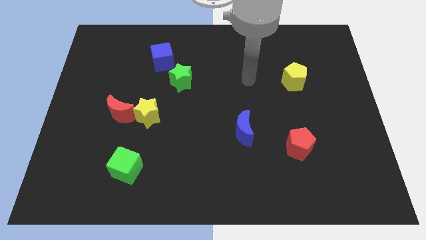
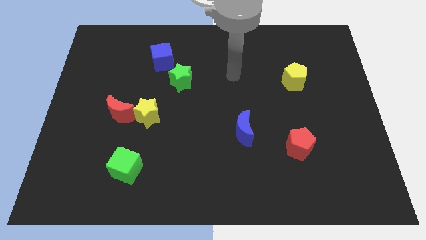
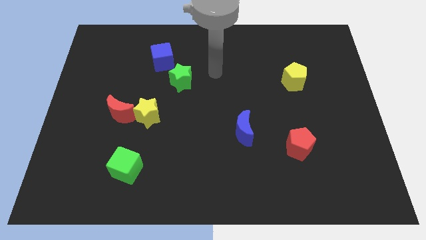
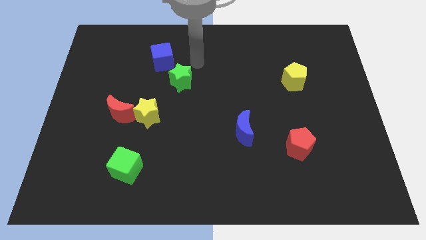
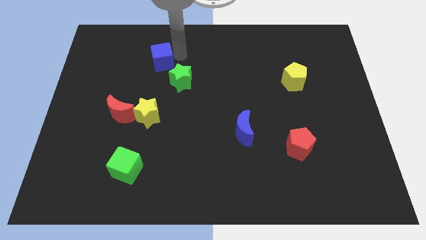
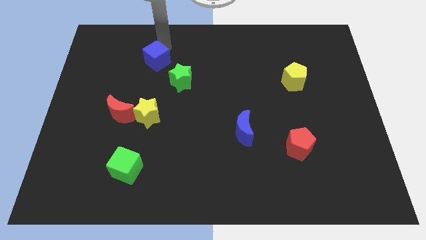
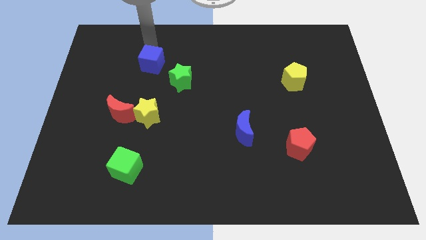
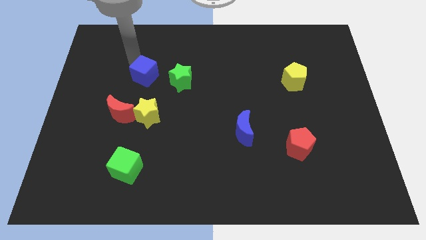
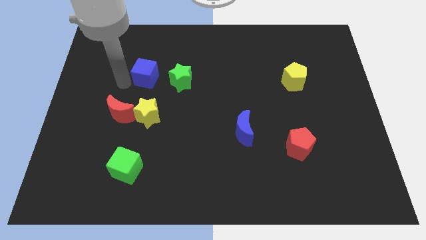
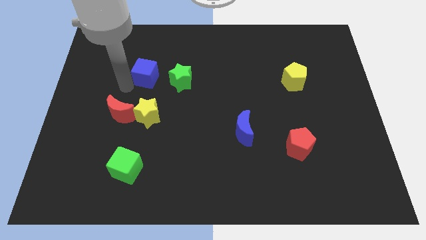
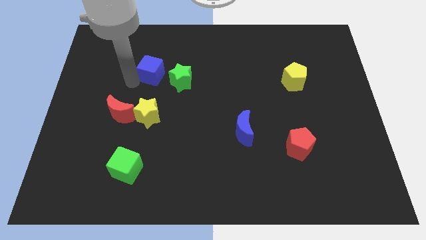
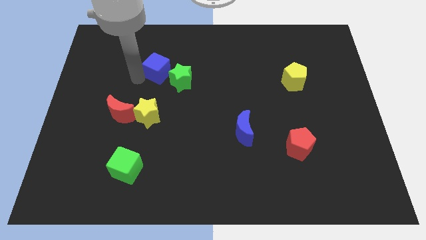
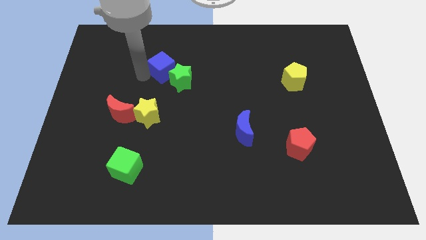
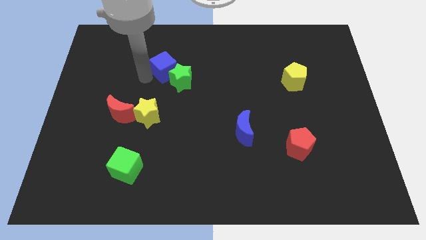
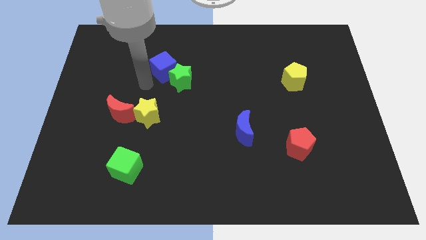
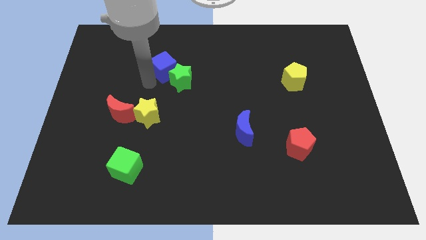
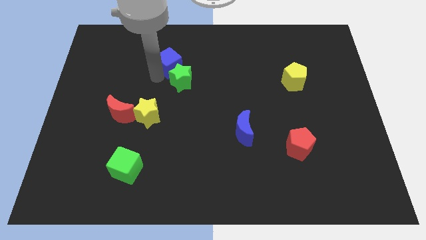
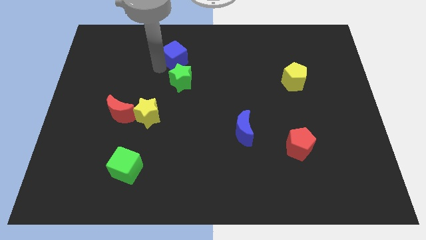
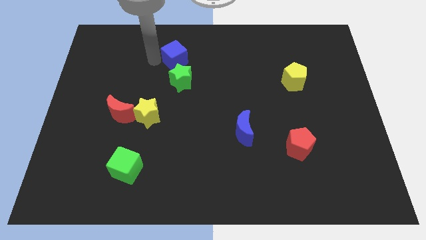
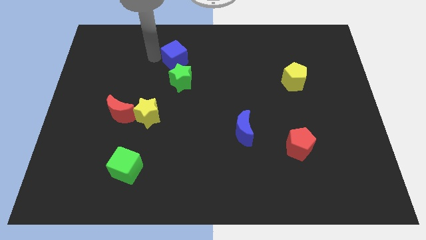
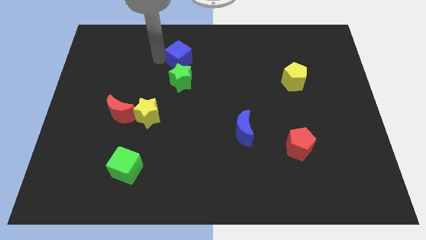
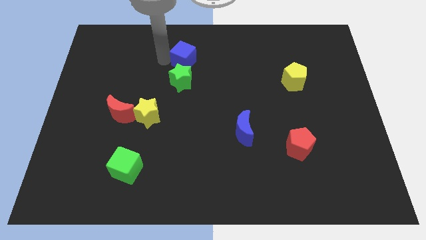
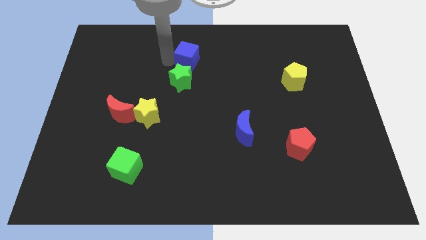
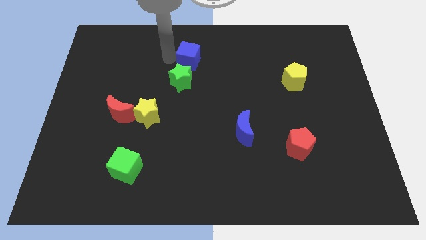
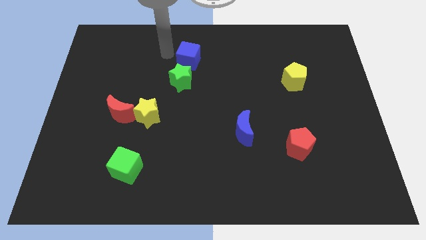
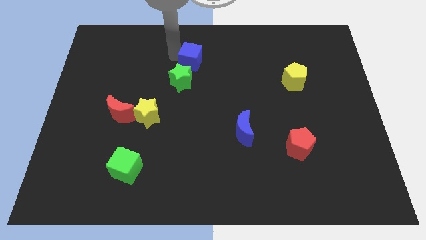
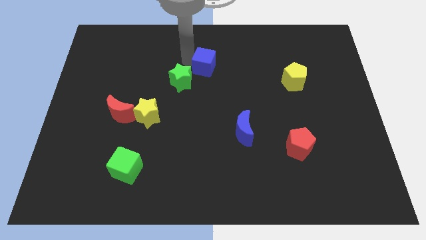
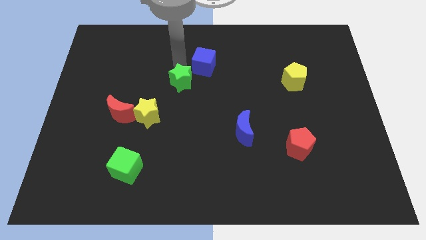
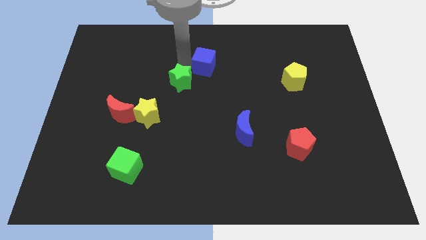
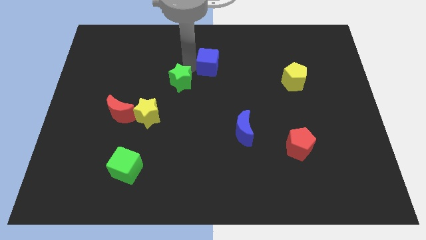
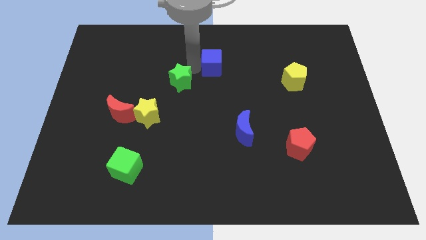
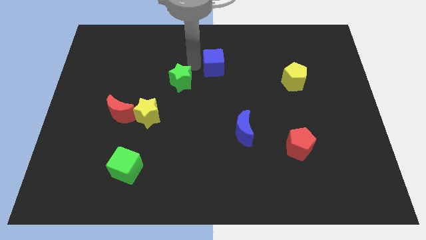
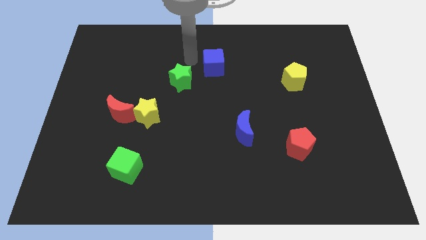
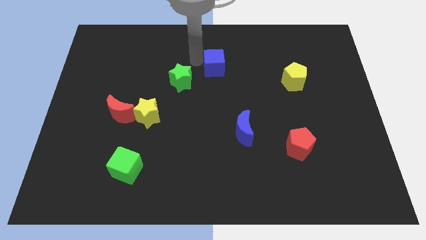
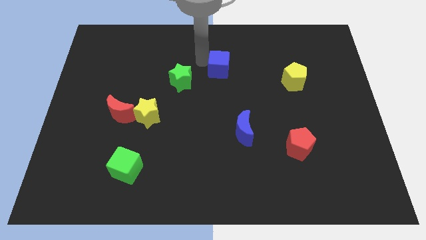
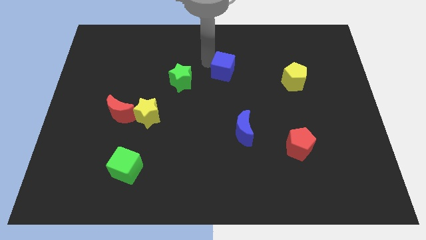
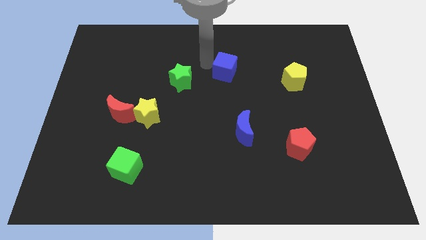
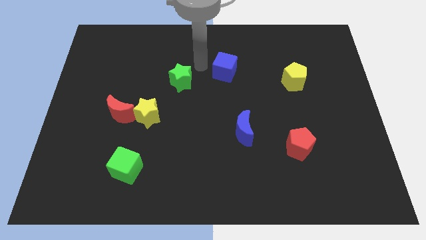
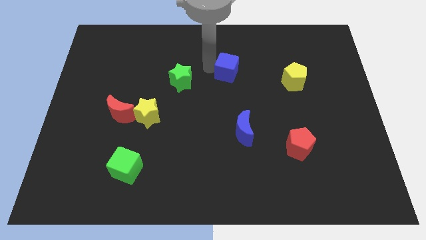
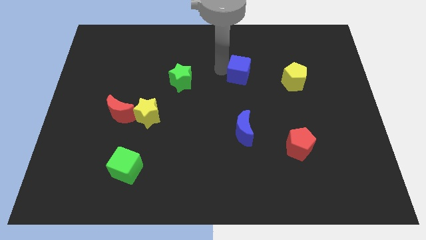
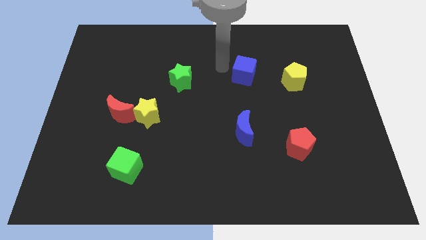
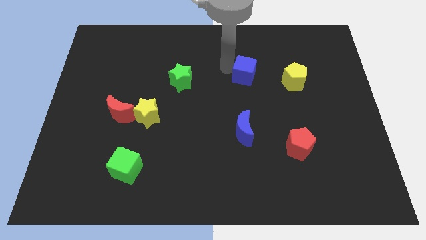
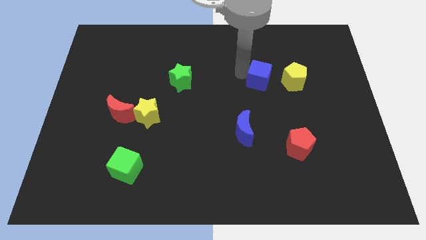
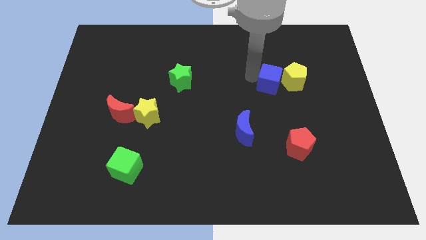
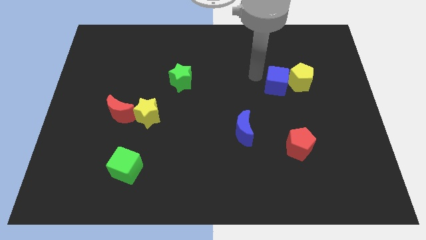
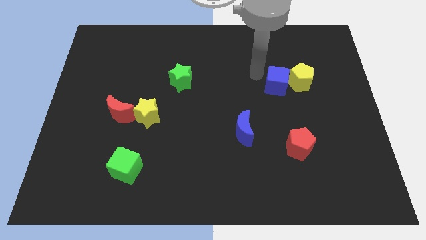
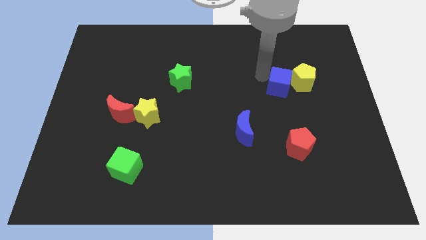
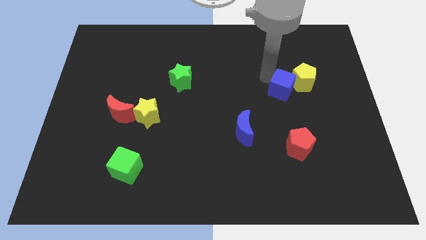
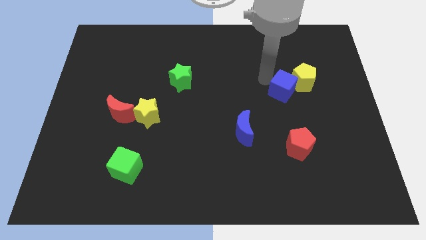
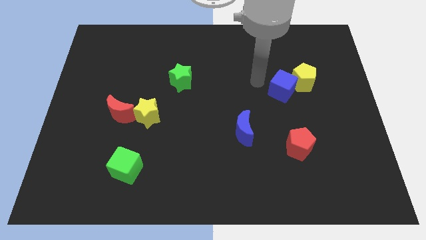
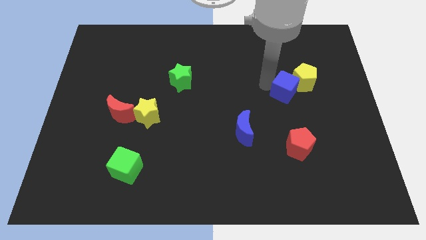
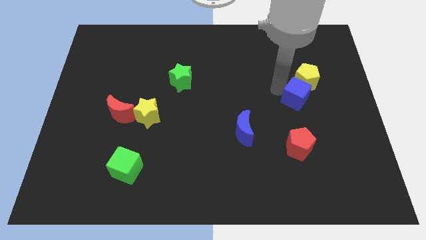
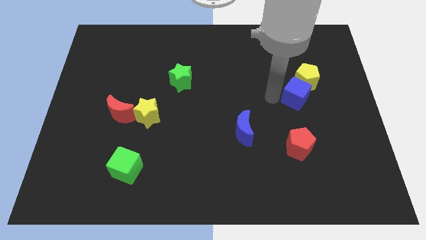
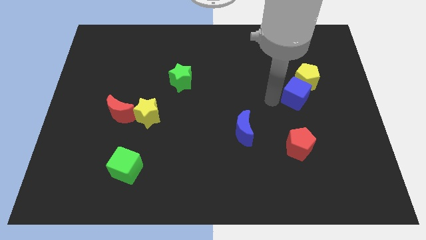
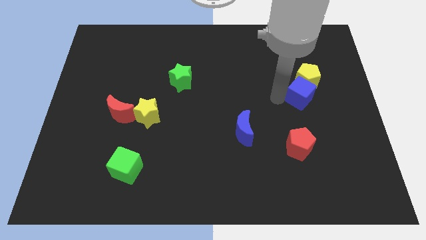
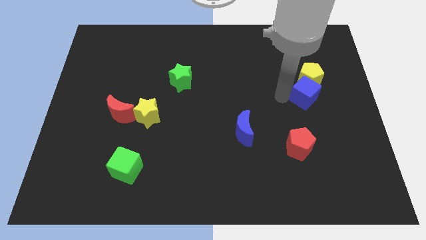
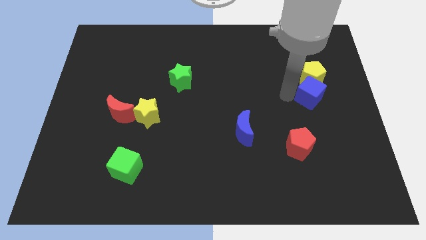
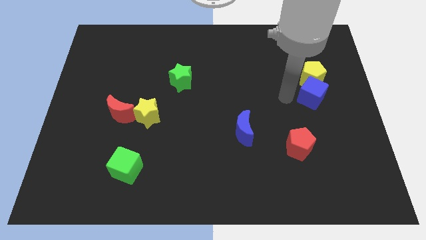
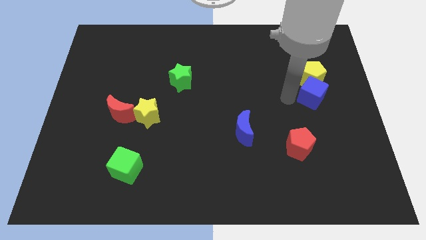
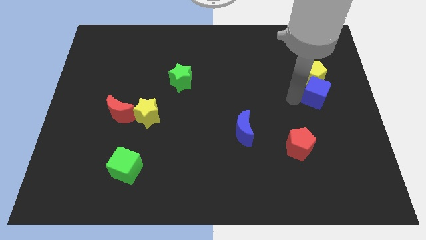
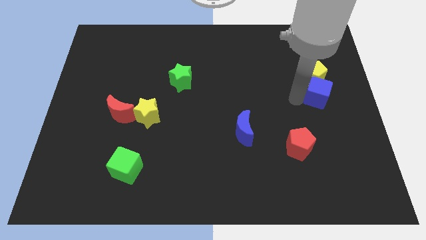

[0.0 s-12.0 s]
push the blue cube to the center right

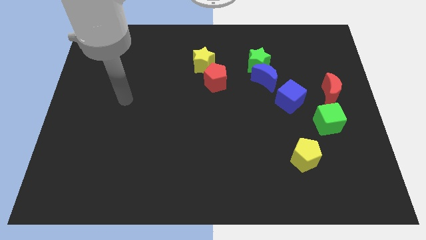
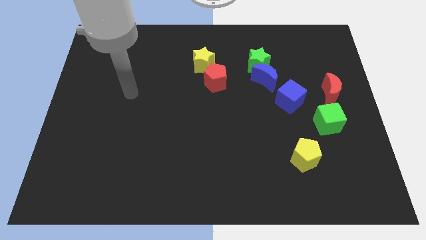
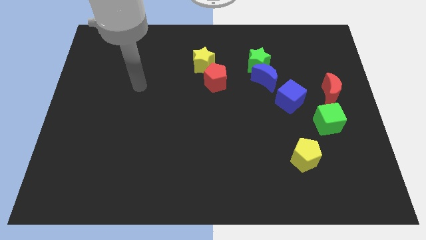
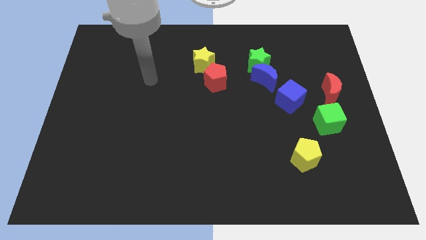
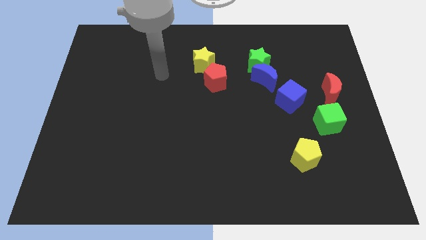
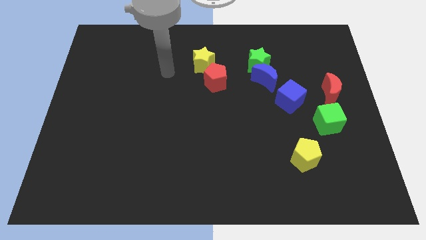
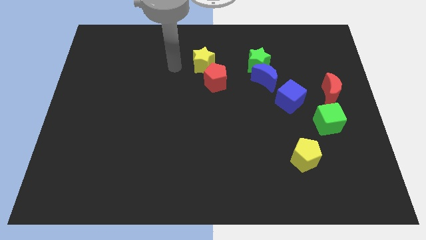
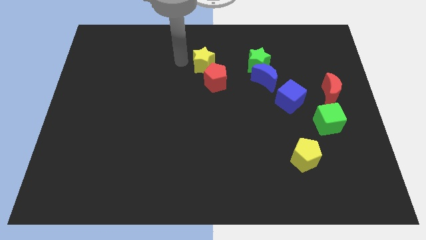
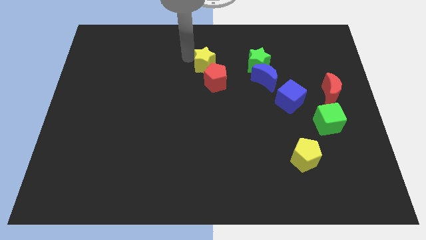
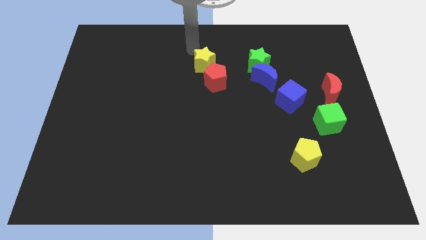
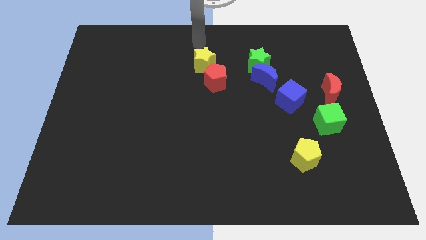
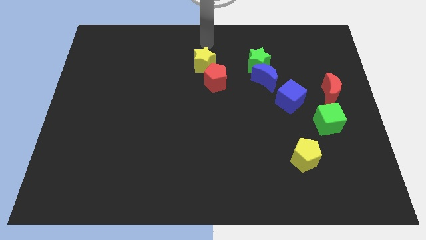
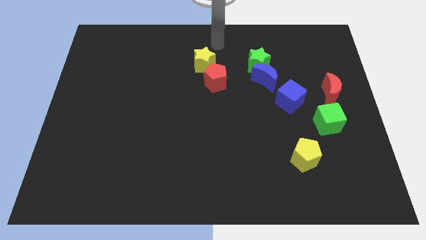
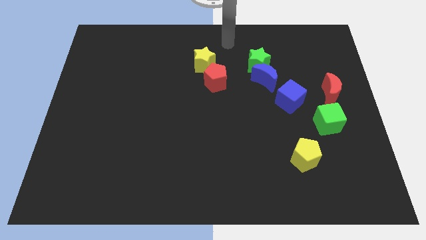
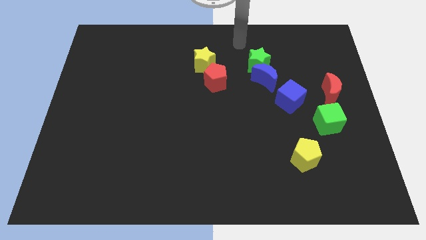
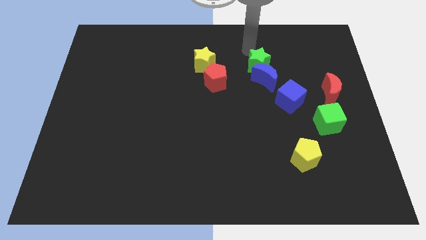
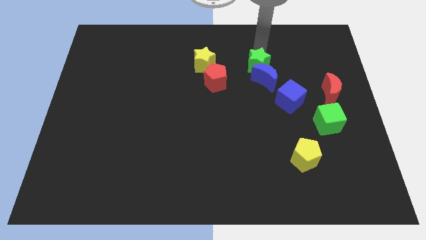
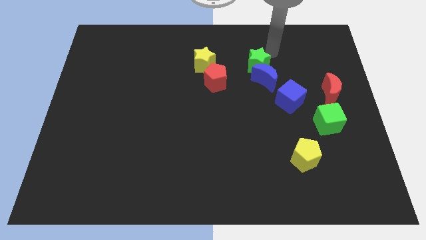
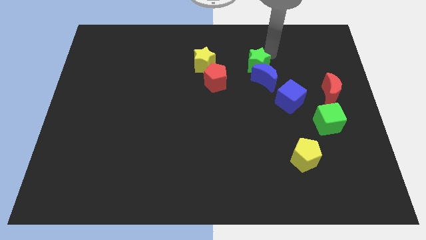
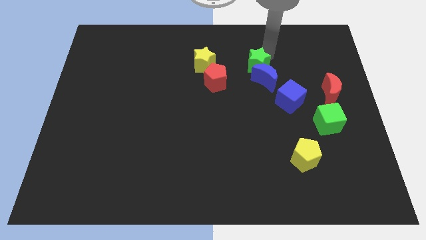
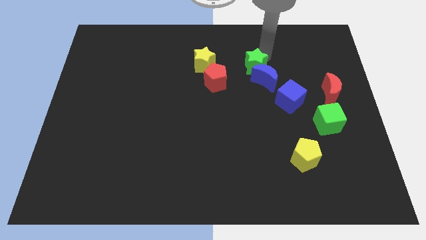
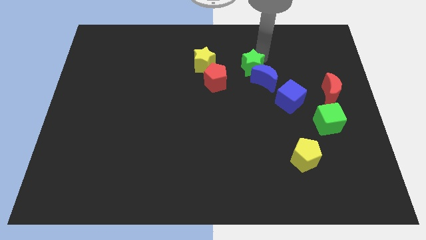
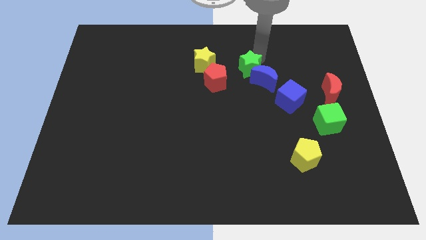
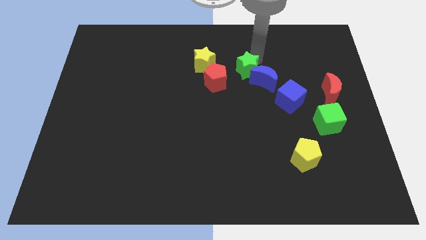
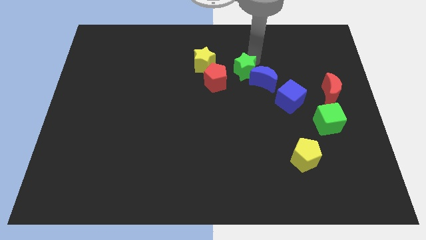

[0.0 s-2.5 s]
put the green star to the middle
